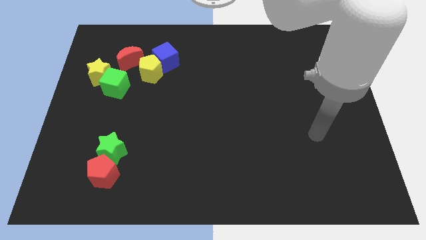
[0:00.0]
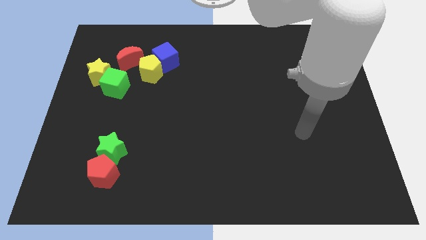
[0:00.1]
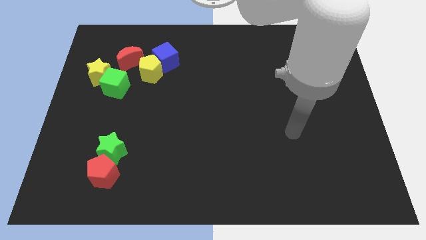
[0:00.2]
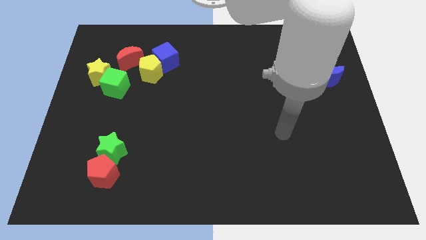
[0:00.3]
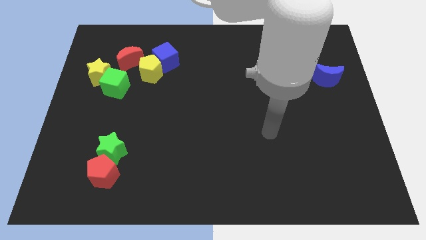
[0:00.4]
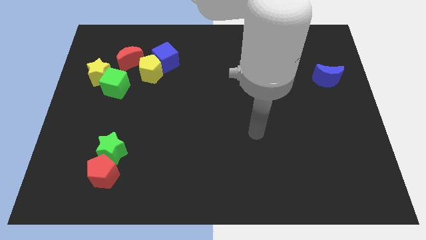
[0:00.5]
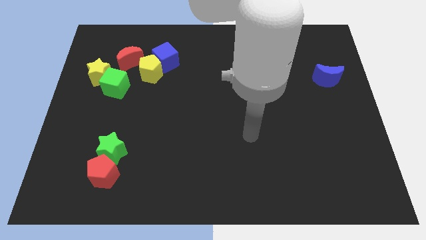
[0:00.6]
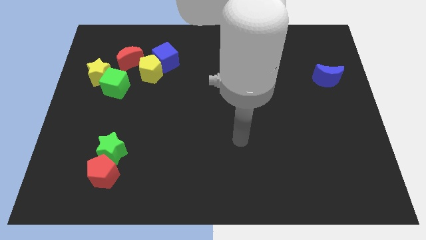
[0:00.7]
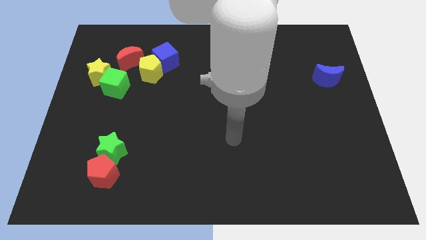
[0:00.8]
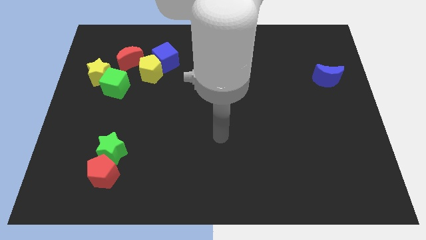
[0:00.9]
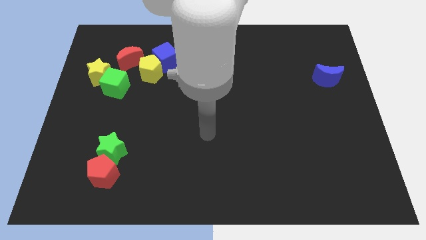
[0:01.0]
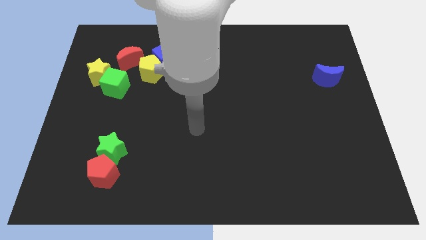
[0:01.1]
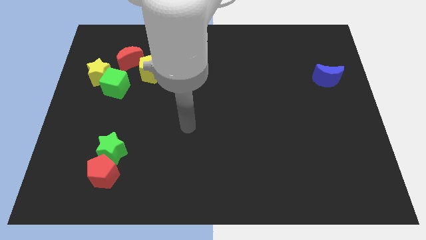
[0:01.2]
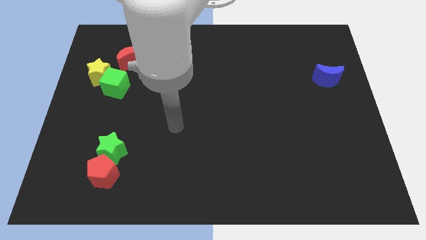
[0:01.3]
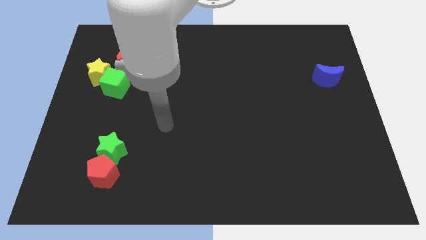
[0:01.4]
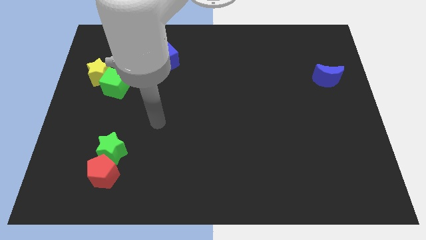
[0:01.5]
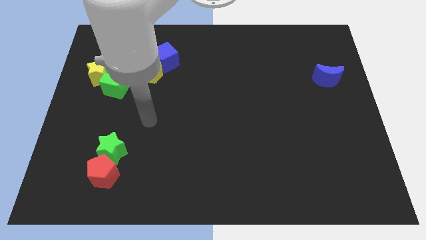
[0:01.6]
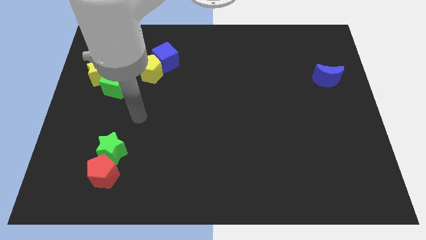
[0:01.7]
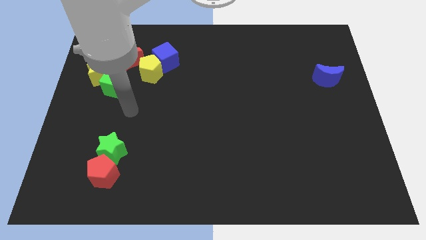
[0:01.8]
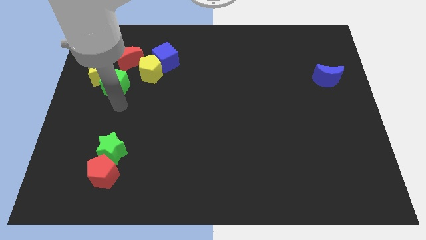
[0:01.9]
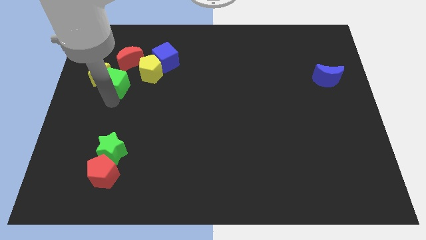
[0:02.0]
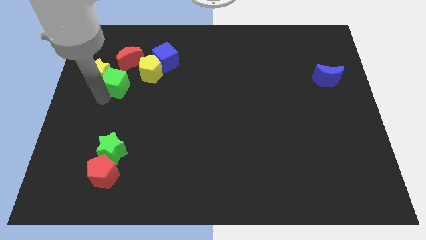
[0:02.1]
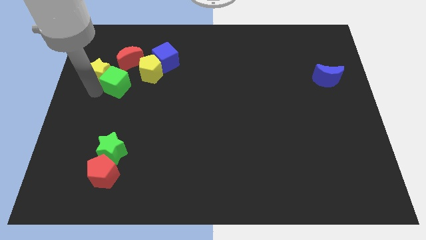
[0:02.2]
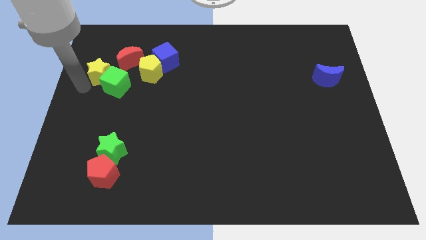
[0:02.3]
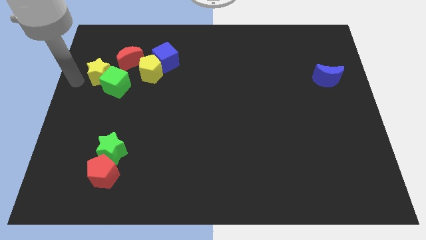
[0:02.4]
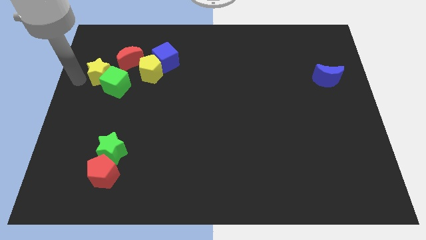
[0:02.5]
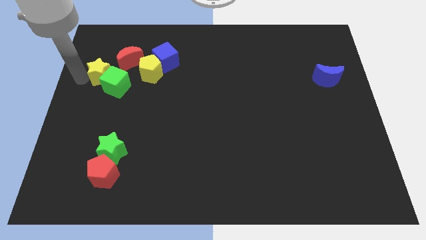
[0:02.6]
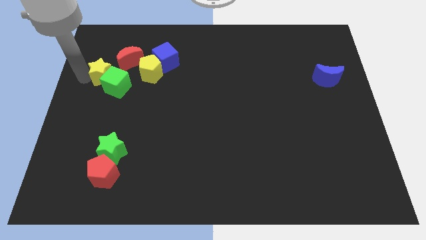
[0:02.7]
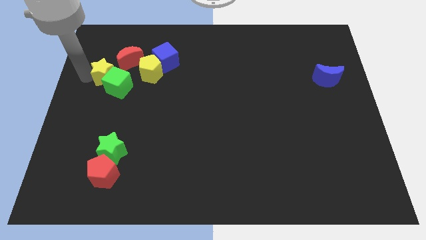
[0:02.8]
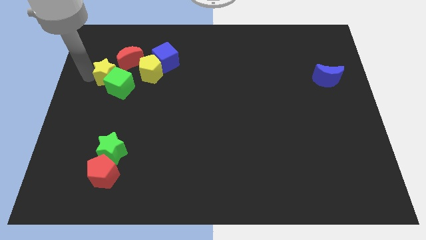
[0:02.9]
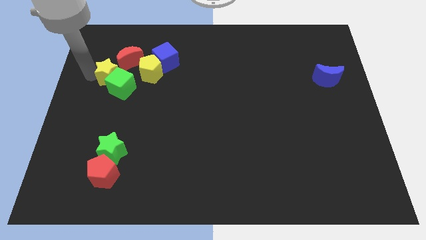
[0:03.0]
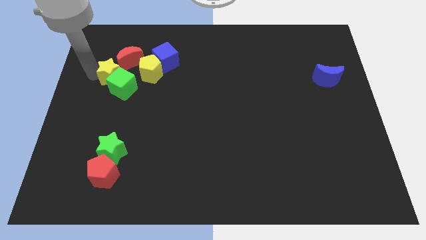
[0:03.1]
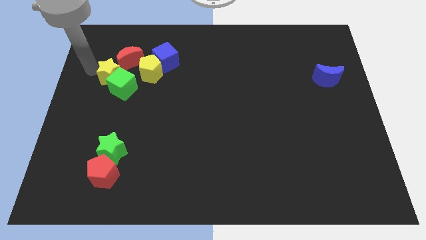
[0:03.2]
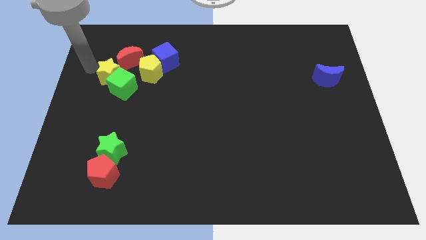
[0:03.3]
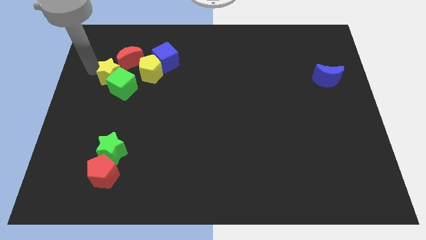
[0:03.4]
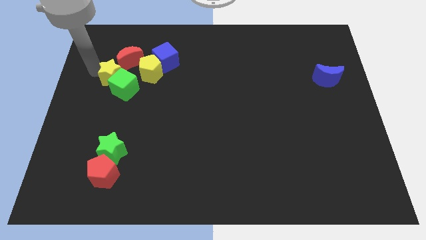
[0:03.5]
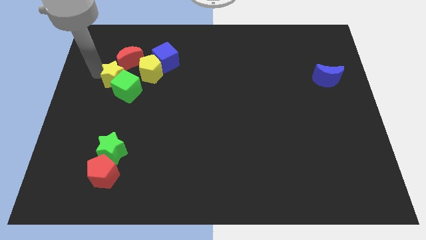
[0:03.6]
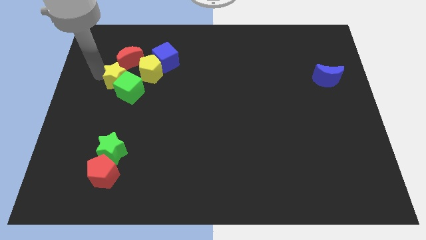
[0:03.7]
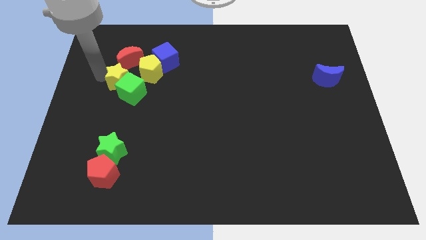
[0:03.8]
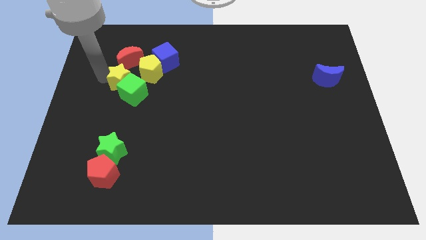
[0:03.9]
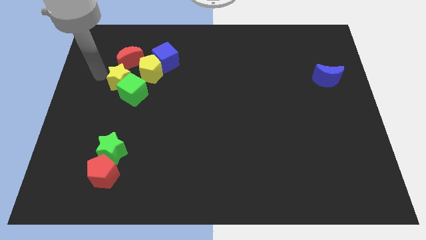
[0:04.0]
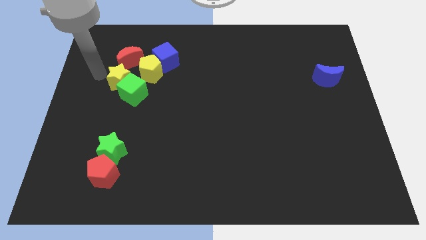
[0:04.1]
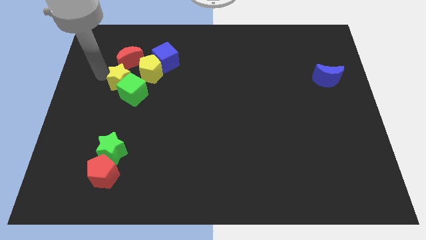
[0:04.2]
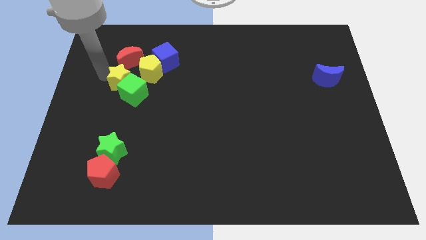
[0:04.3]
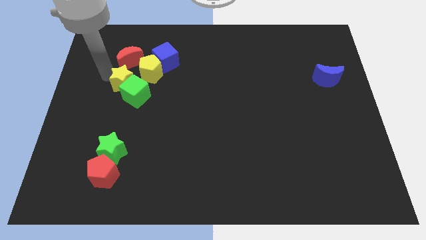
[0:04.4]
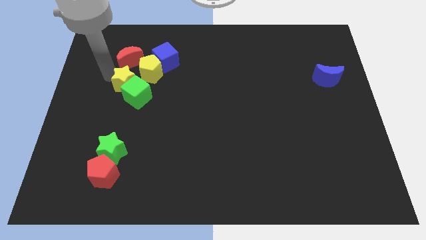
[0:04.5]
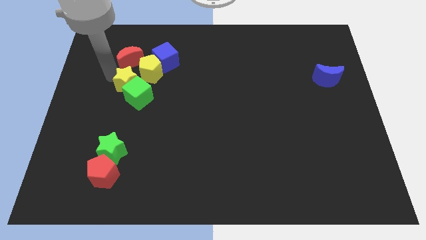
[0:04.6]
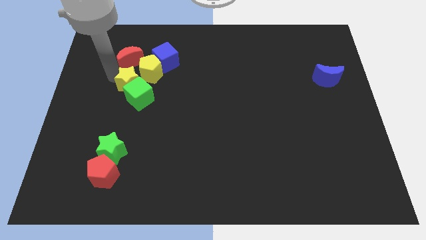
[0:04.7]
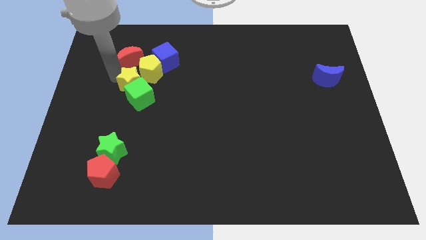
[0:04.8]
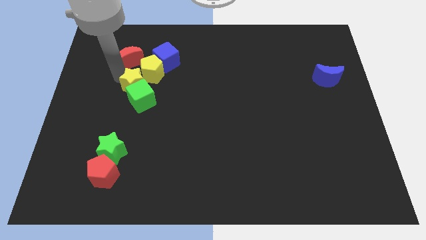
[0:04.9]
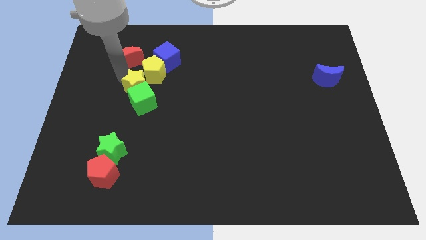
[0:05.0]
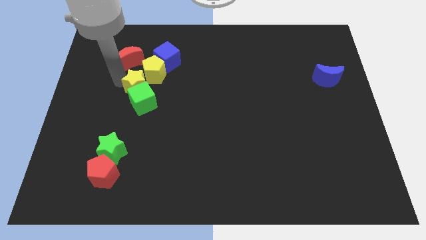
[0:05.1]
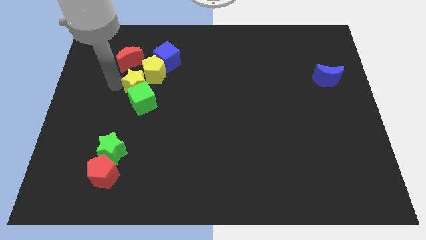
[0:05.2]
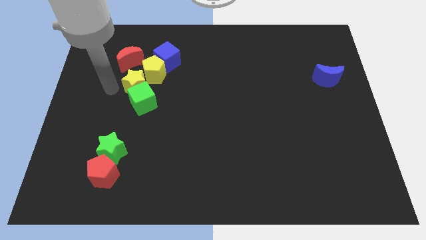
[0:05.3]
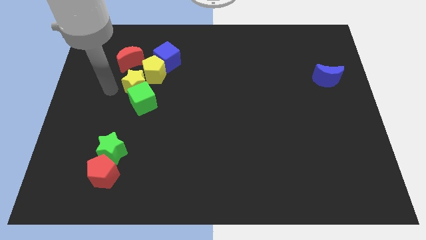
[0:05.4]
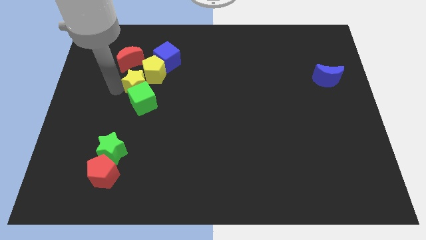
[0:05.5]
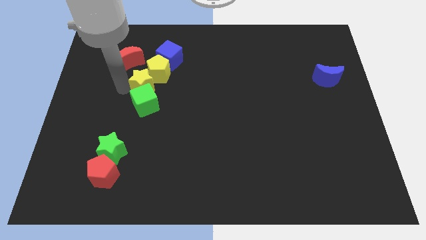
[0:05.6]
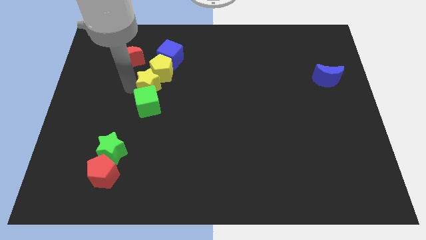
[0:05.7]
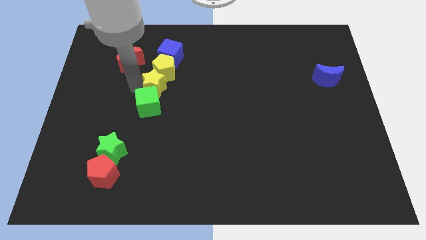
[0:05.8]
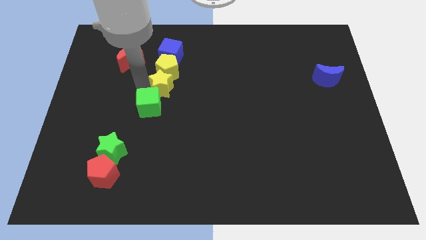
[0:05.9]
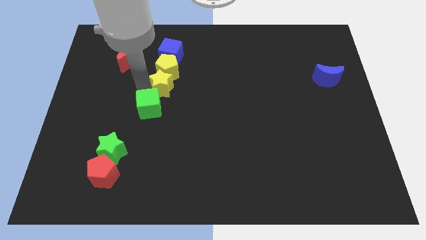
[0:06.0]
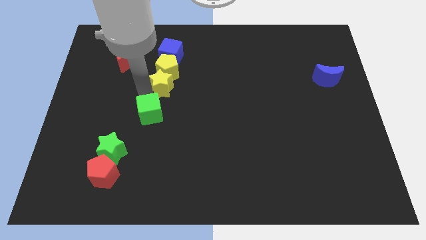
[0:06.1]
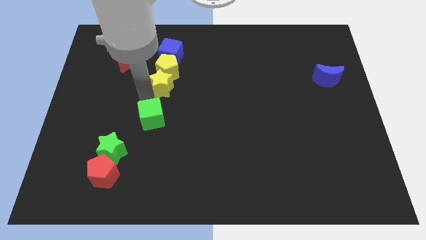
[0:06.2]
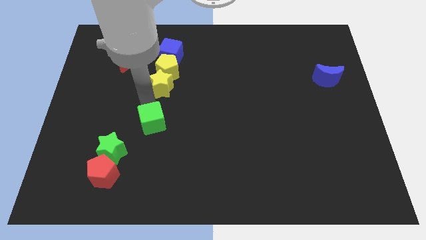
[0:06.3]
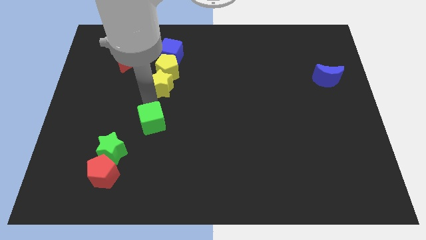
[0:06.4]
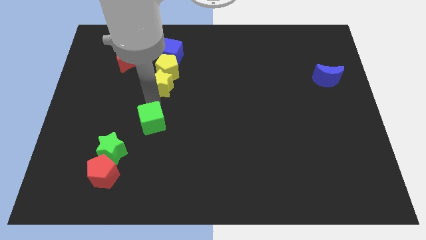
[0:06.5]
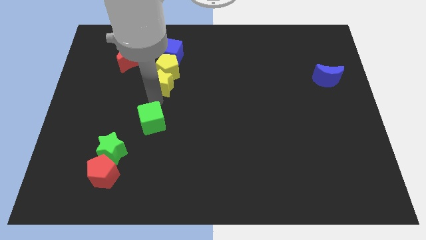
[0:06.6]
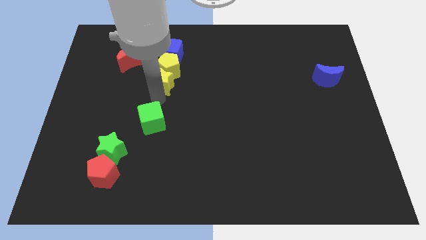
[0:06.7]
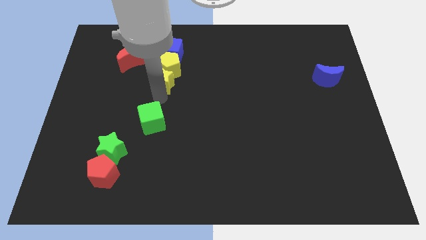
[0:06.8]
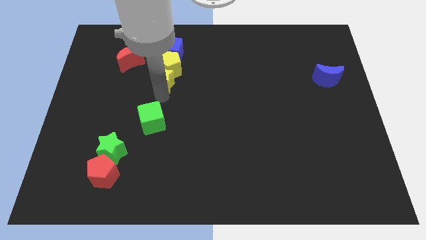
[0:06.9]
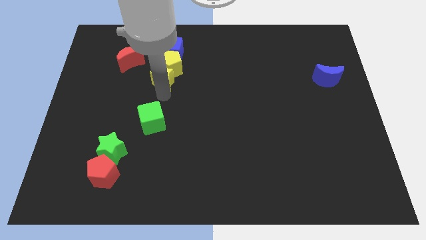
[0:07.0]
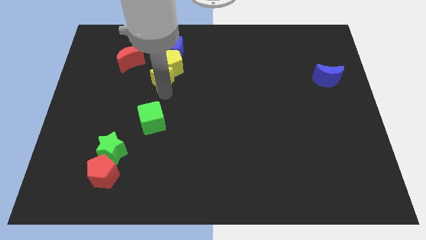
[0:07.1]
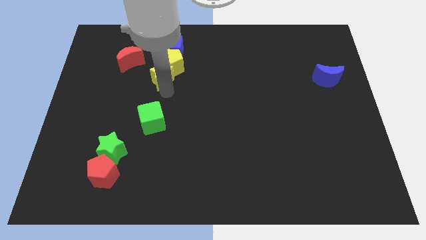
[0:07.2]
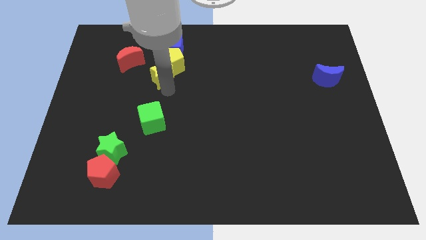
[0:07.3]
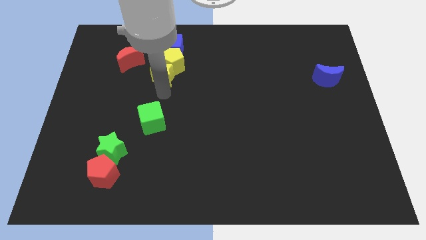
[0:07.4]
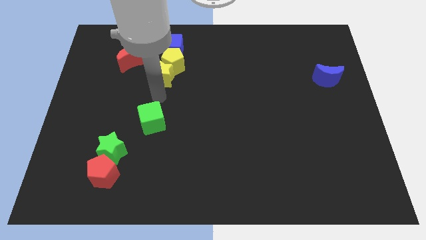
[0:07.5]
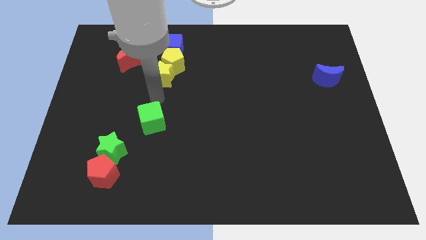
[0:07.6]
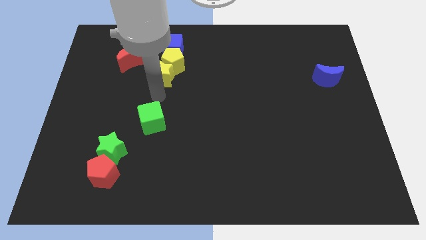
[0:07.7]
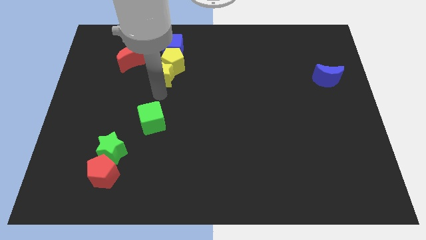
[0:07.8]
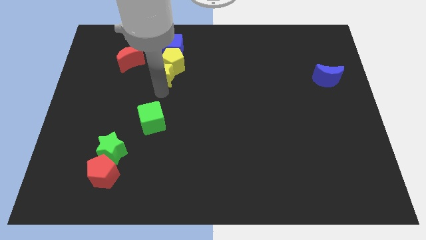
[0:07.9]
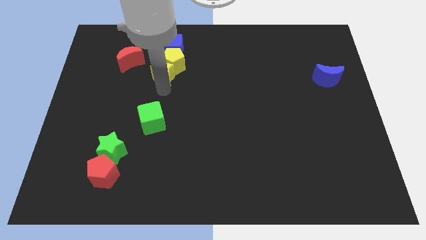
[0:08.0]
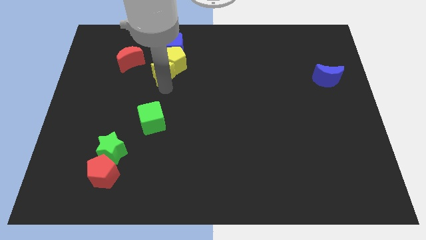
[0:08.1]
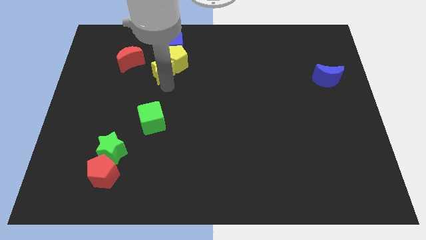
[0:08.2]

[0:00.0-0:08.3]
put the yellow star just right of the red moon
